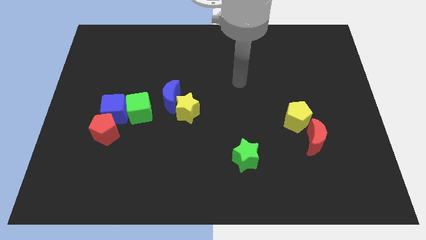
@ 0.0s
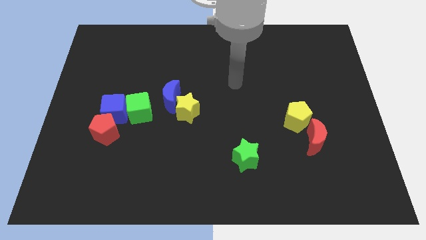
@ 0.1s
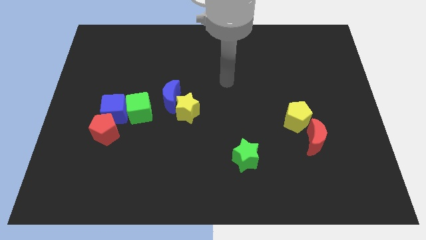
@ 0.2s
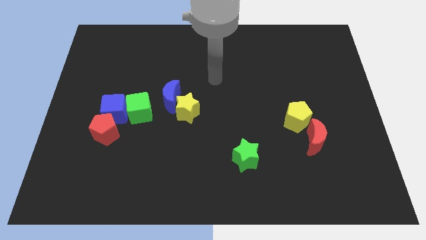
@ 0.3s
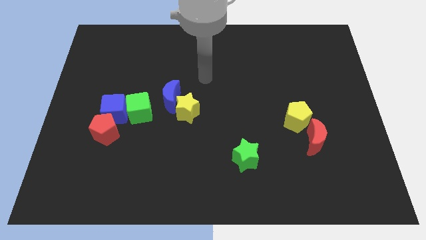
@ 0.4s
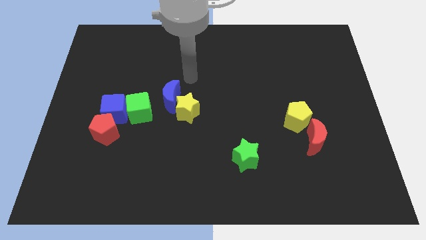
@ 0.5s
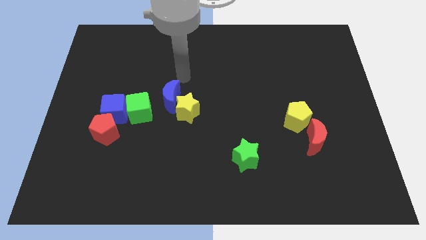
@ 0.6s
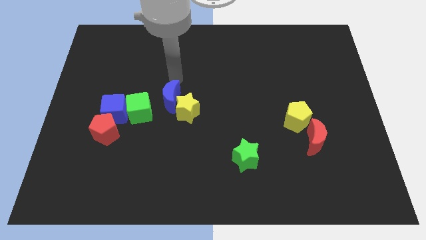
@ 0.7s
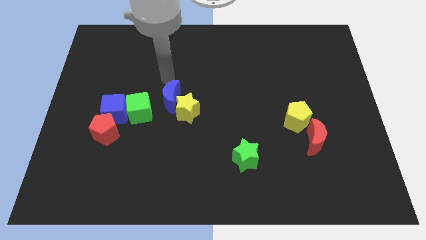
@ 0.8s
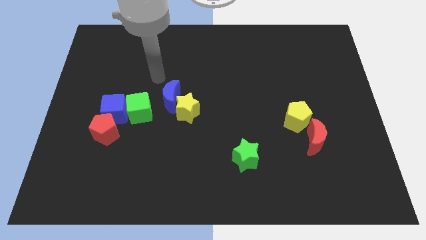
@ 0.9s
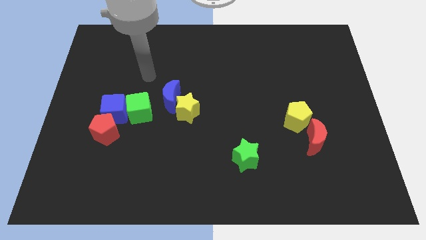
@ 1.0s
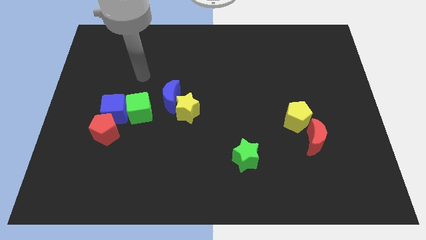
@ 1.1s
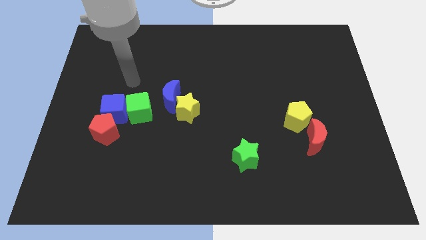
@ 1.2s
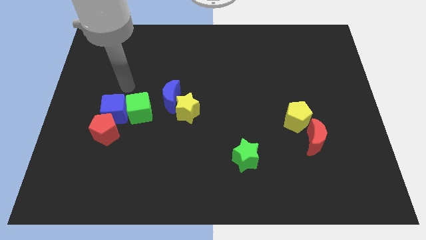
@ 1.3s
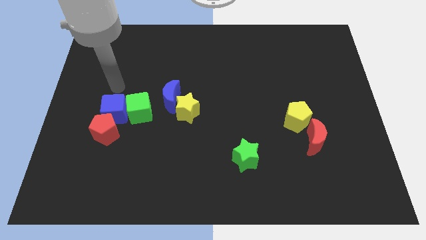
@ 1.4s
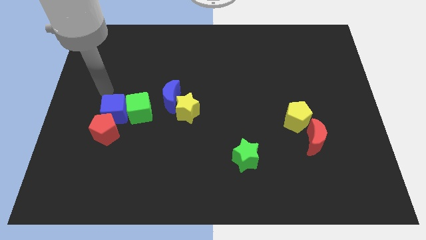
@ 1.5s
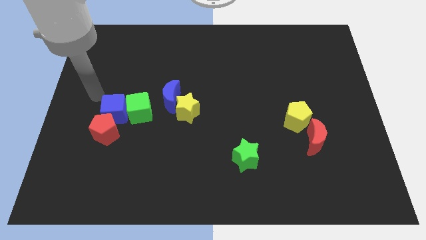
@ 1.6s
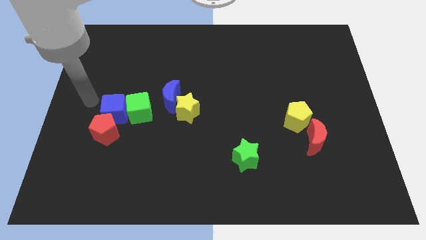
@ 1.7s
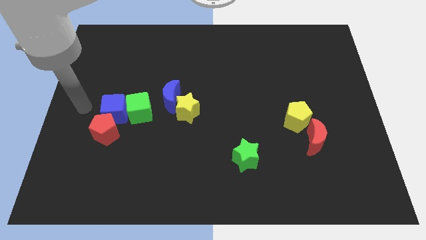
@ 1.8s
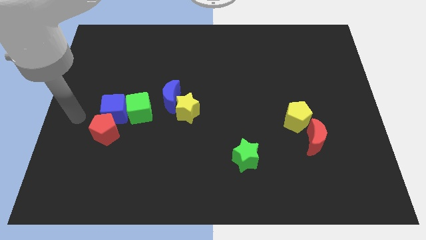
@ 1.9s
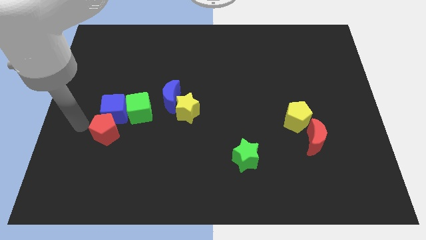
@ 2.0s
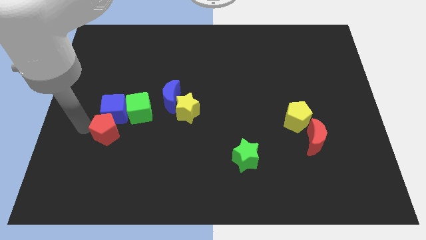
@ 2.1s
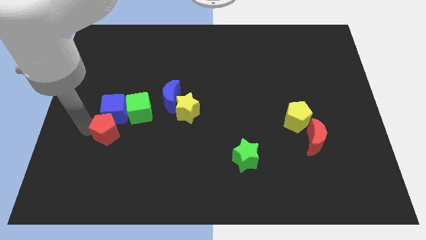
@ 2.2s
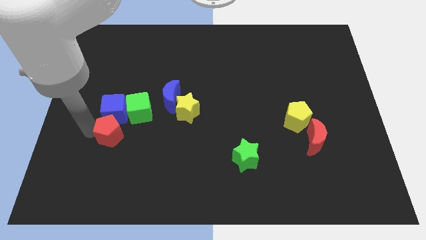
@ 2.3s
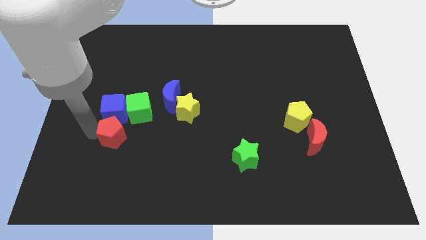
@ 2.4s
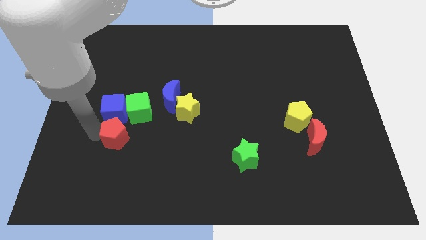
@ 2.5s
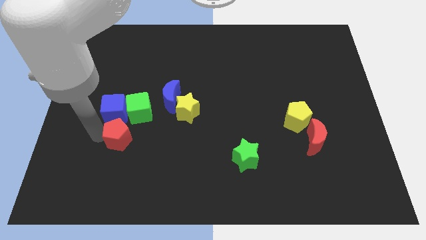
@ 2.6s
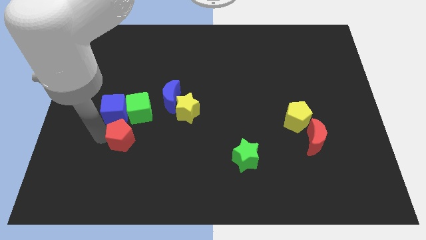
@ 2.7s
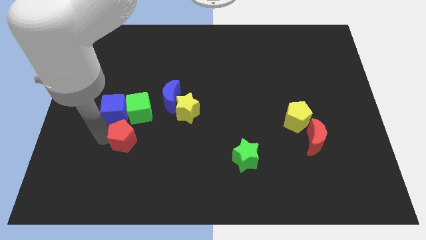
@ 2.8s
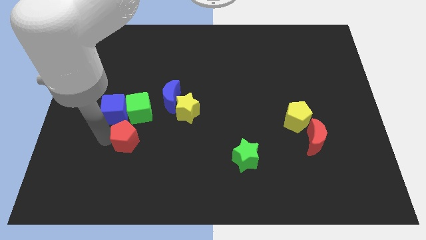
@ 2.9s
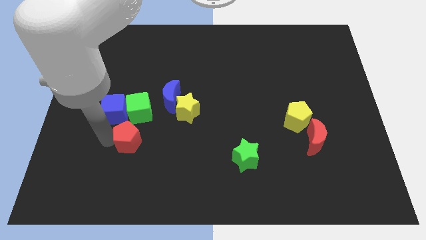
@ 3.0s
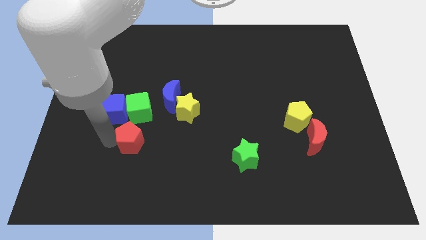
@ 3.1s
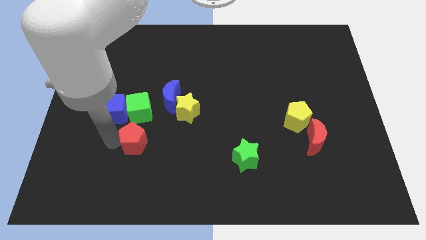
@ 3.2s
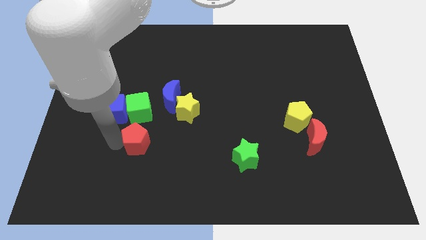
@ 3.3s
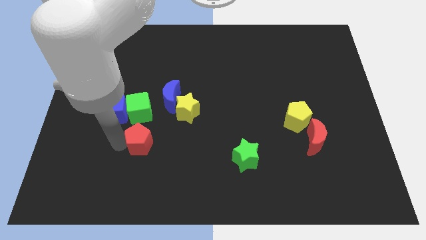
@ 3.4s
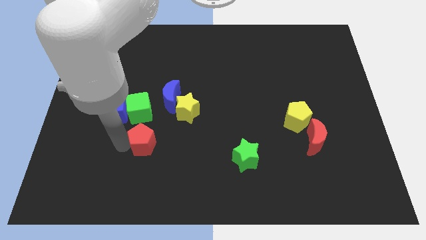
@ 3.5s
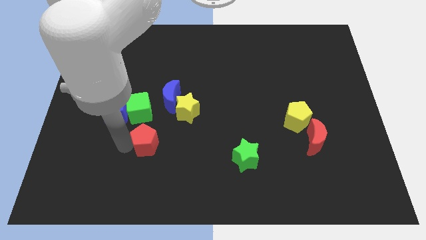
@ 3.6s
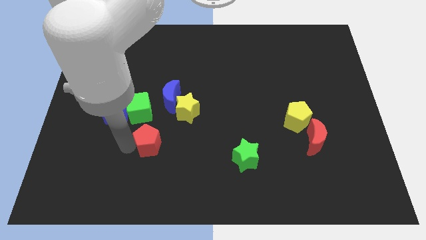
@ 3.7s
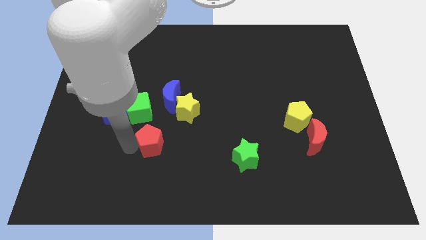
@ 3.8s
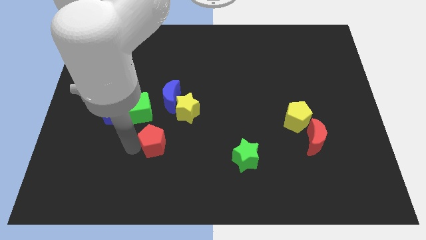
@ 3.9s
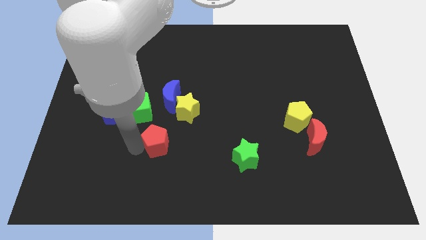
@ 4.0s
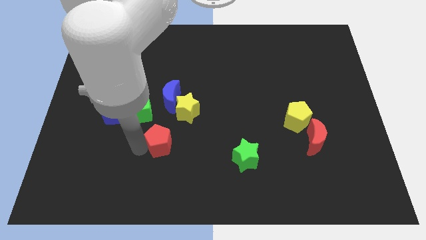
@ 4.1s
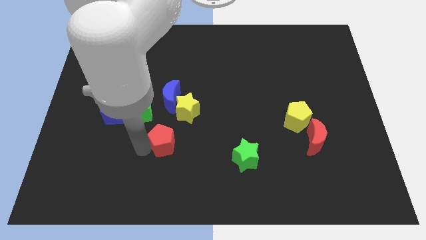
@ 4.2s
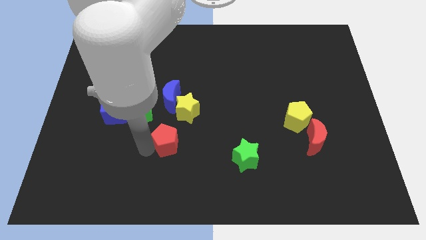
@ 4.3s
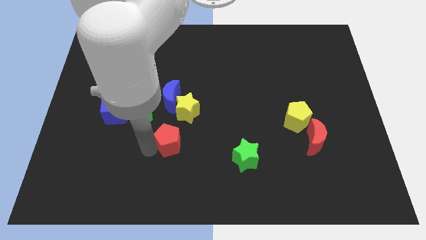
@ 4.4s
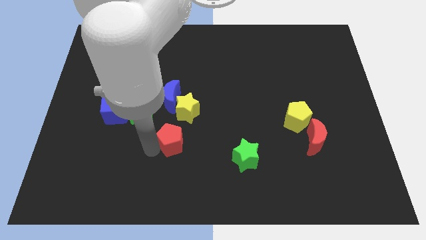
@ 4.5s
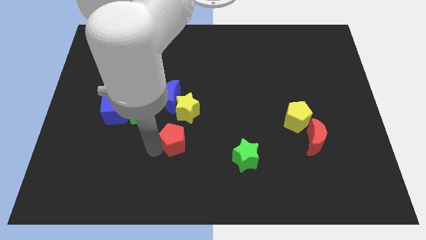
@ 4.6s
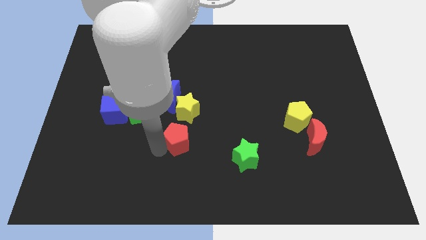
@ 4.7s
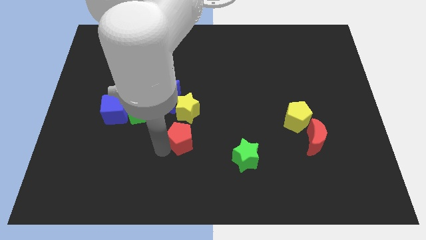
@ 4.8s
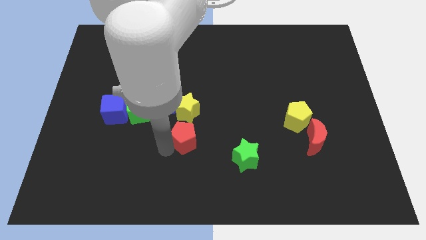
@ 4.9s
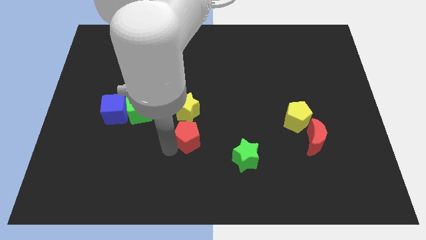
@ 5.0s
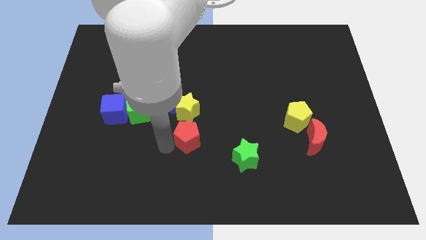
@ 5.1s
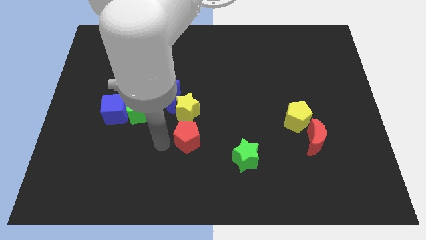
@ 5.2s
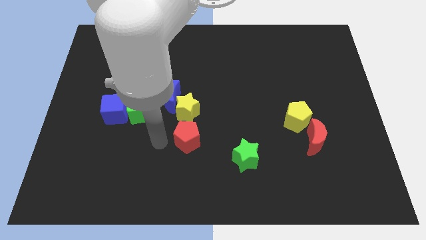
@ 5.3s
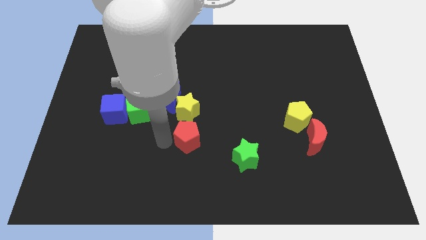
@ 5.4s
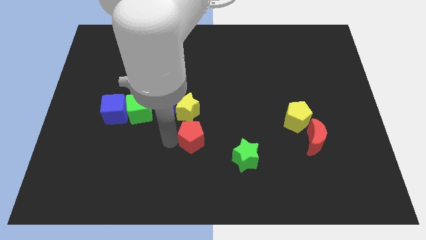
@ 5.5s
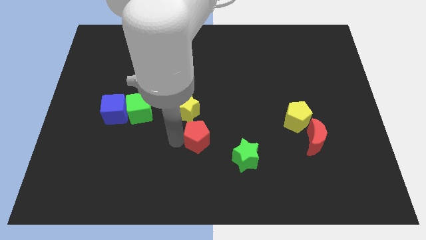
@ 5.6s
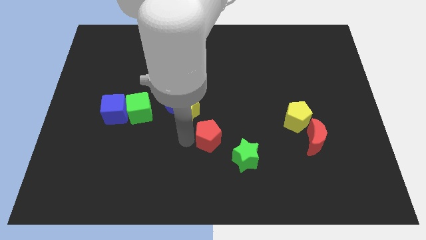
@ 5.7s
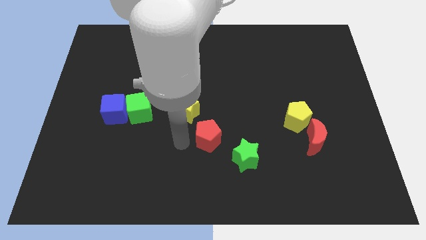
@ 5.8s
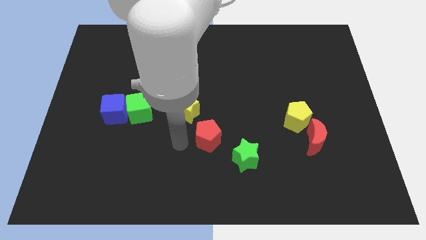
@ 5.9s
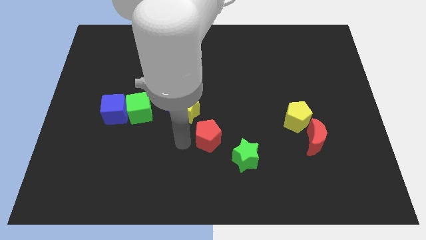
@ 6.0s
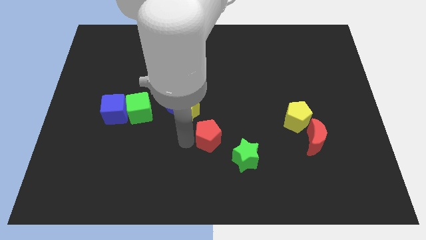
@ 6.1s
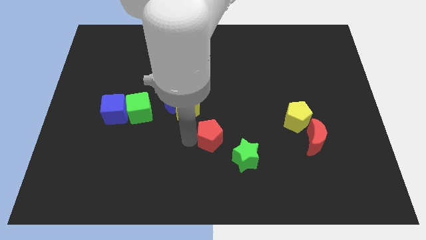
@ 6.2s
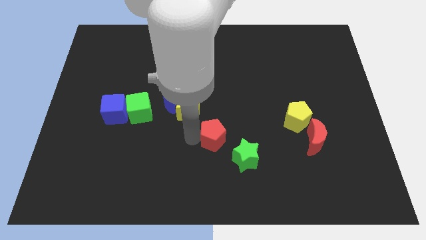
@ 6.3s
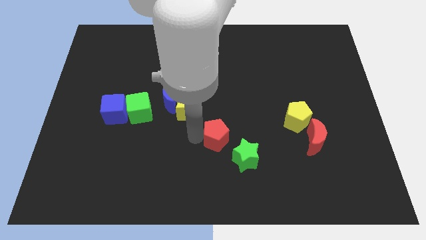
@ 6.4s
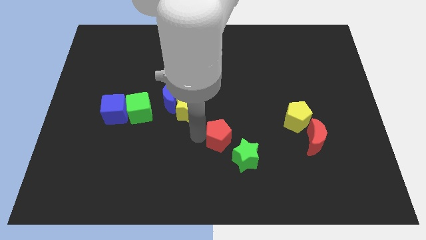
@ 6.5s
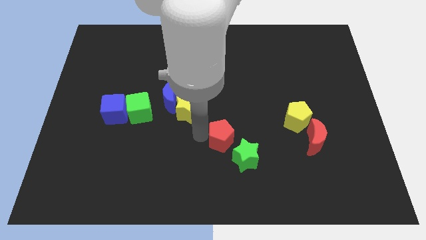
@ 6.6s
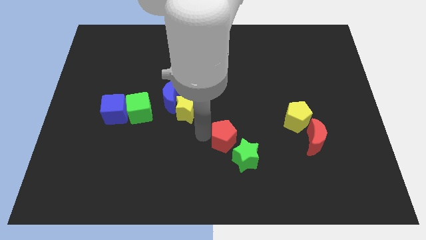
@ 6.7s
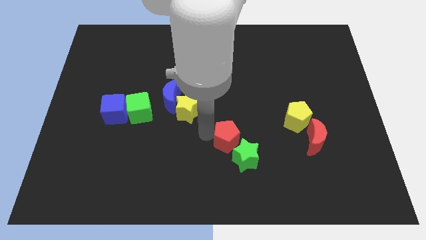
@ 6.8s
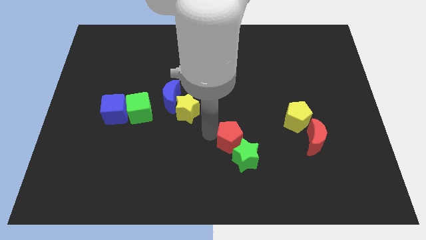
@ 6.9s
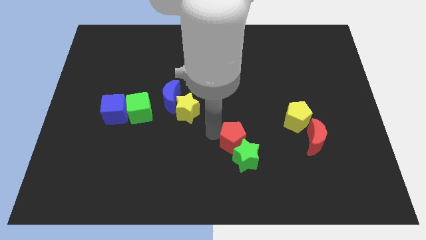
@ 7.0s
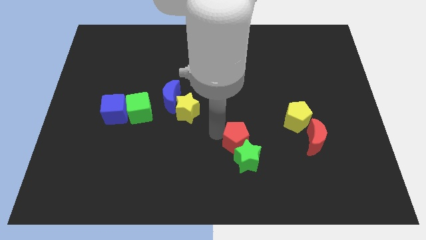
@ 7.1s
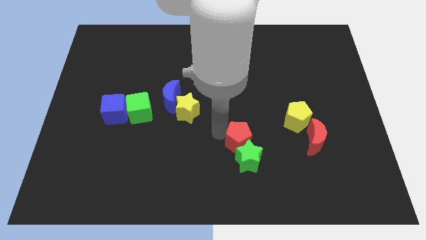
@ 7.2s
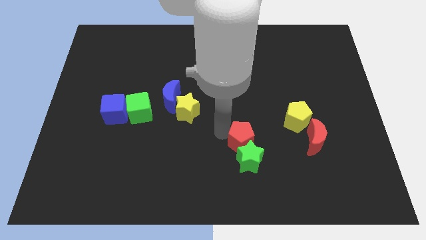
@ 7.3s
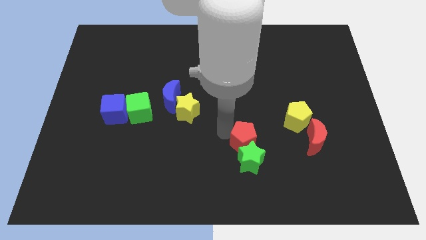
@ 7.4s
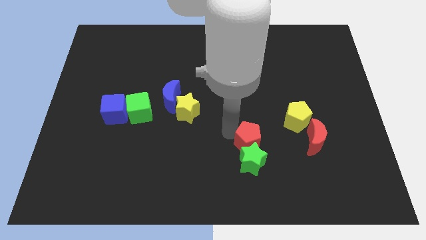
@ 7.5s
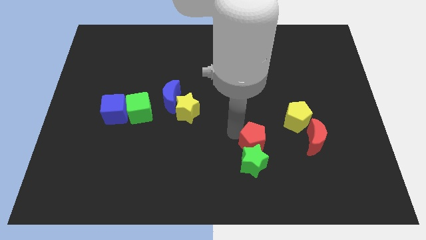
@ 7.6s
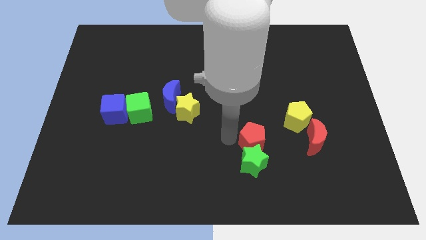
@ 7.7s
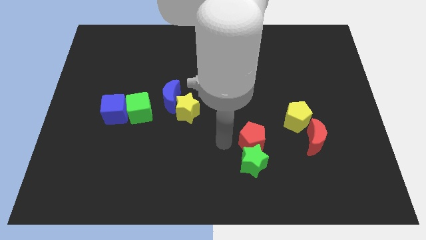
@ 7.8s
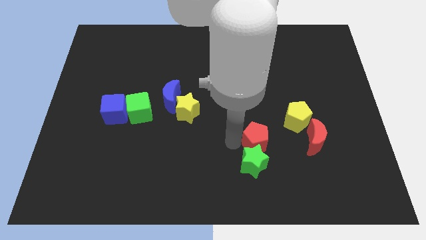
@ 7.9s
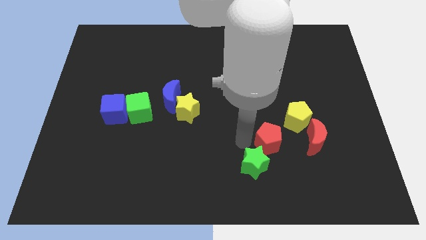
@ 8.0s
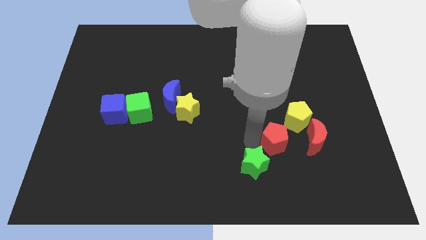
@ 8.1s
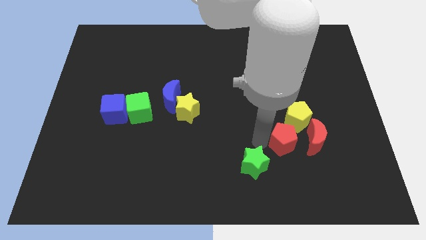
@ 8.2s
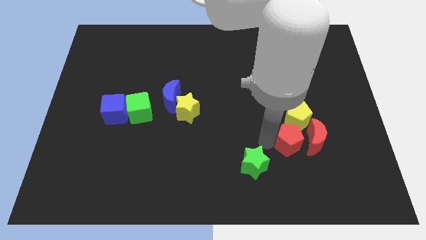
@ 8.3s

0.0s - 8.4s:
slide the red pentagon towards the red moon
